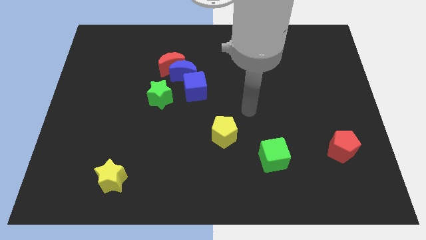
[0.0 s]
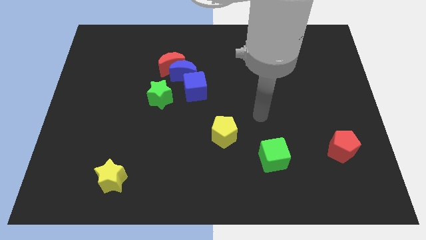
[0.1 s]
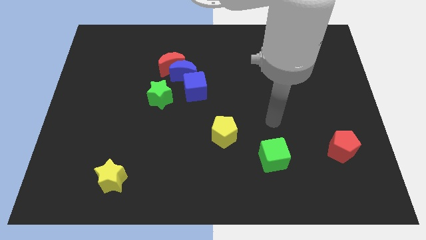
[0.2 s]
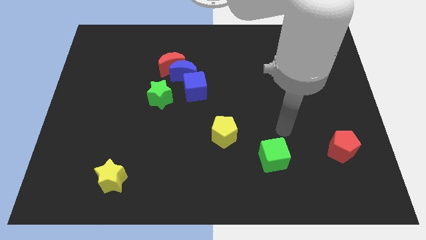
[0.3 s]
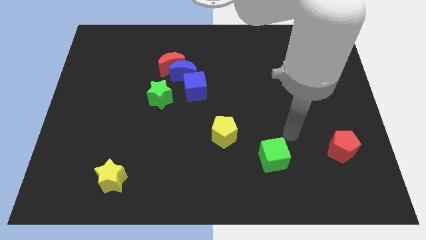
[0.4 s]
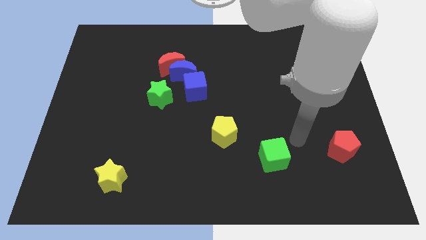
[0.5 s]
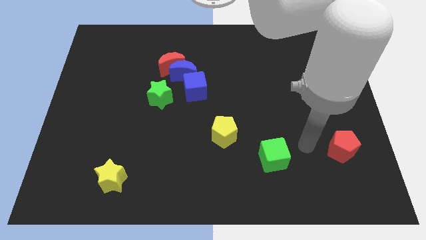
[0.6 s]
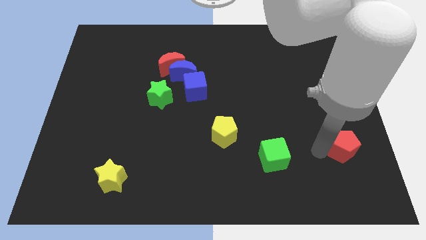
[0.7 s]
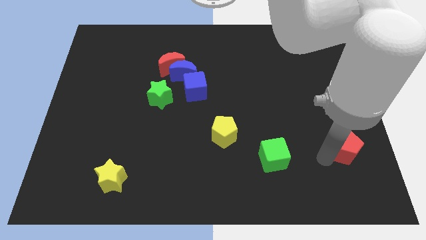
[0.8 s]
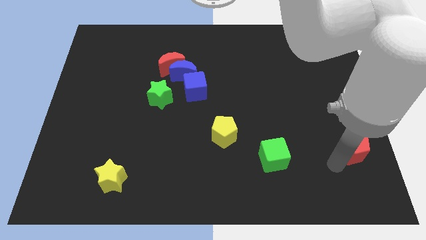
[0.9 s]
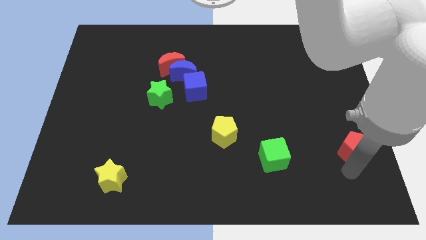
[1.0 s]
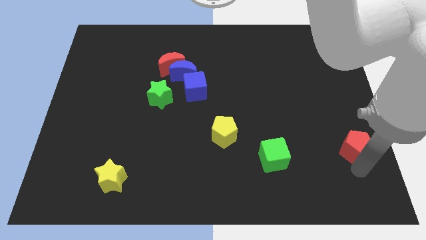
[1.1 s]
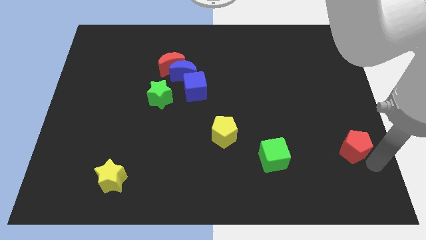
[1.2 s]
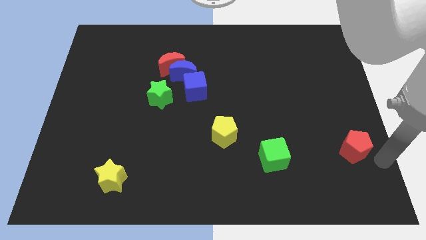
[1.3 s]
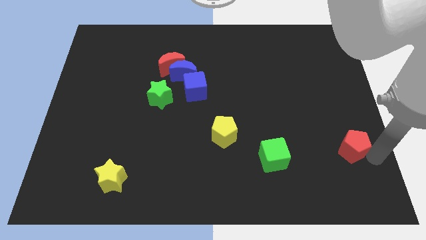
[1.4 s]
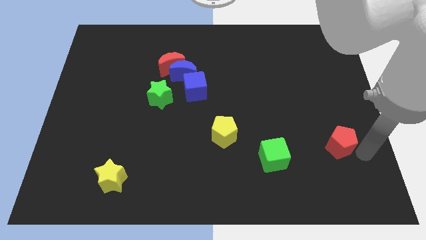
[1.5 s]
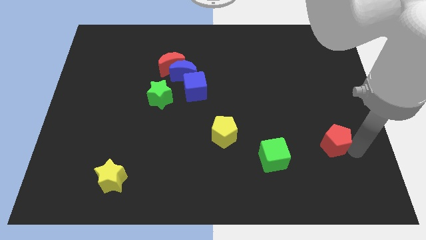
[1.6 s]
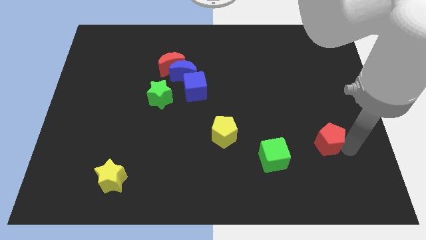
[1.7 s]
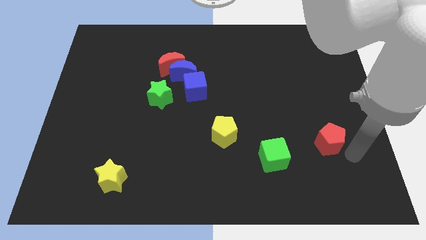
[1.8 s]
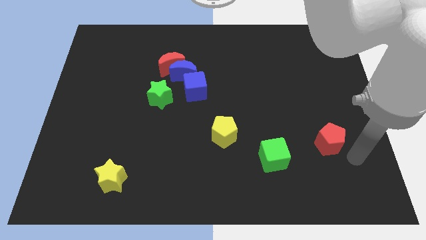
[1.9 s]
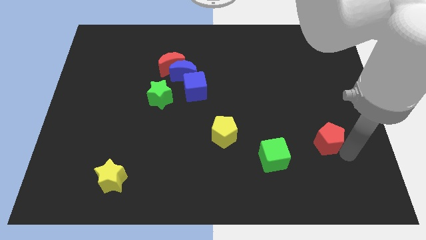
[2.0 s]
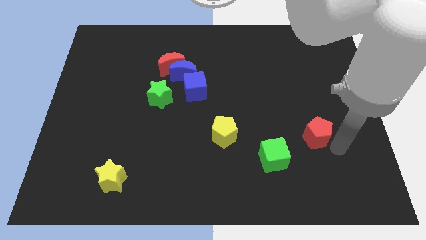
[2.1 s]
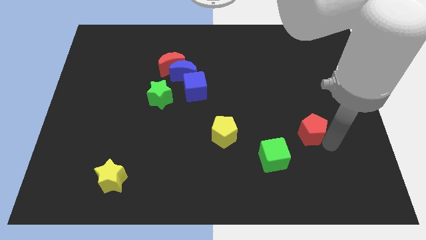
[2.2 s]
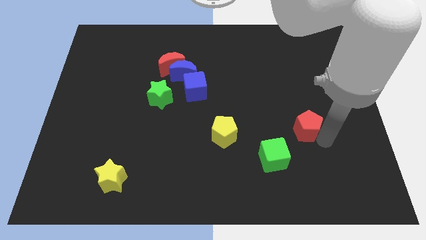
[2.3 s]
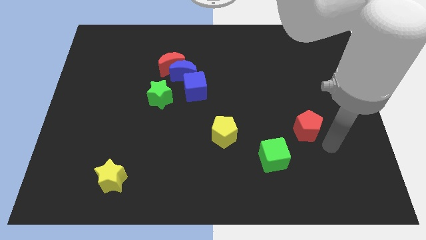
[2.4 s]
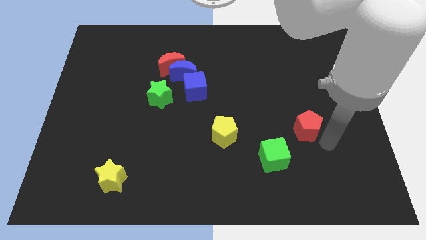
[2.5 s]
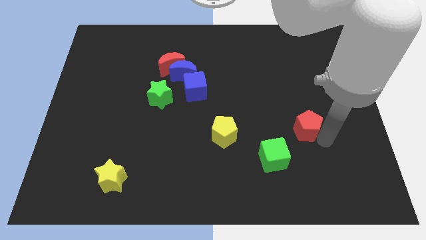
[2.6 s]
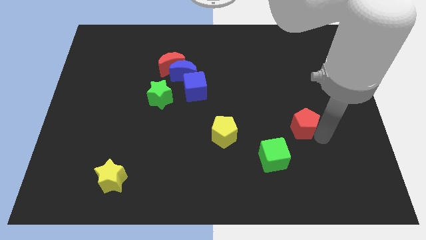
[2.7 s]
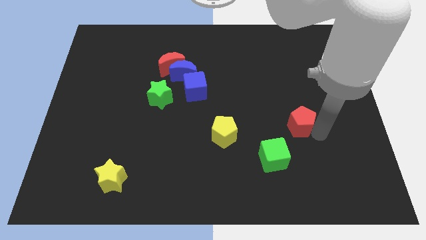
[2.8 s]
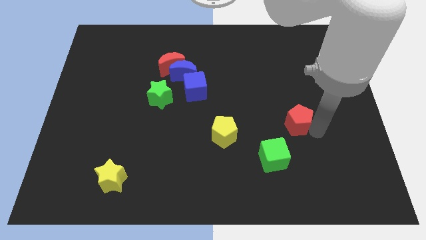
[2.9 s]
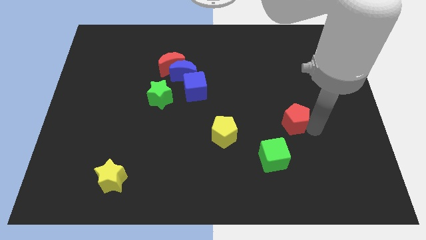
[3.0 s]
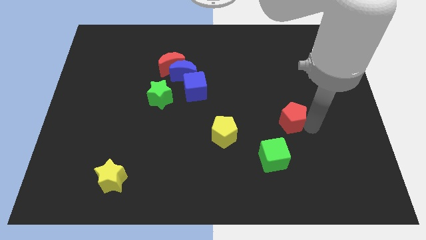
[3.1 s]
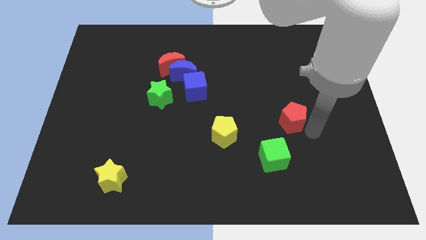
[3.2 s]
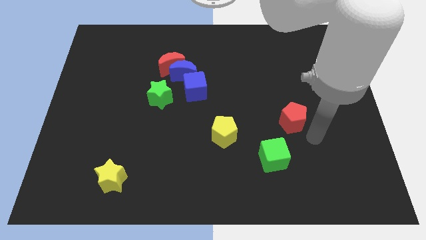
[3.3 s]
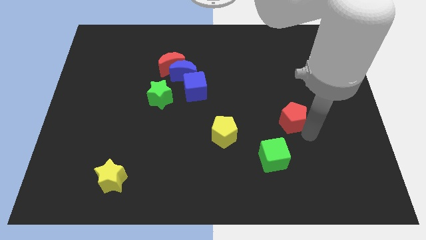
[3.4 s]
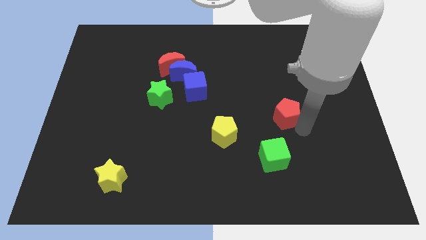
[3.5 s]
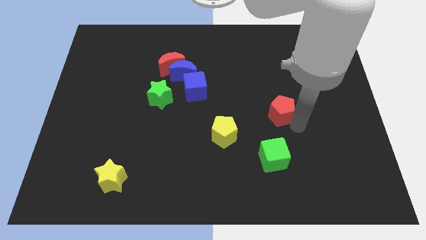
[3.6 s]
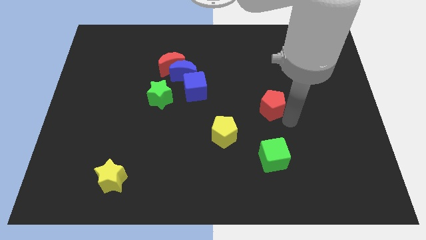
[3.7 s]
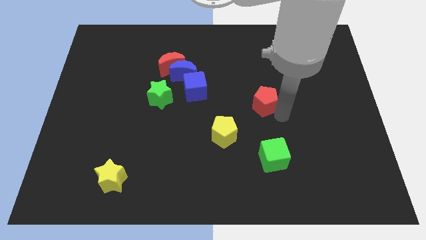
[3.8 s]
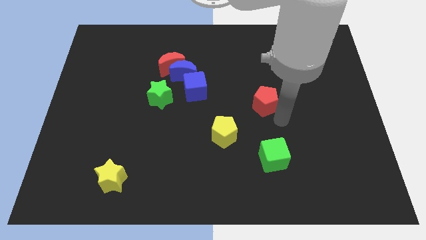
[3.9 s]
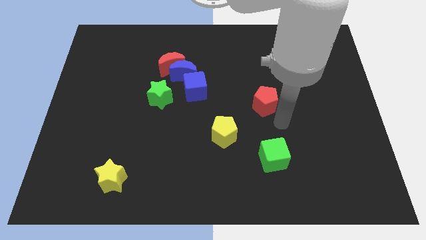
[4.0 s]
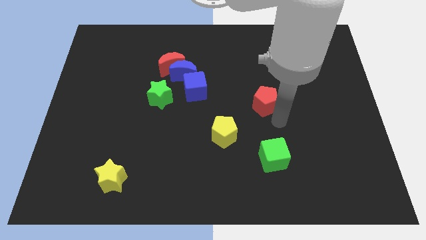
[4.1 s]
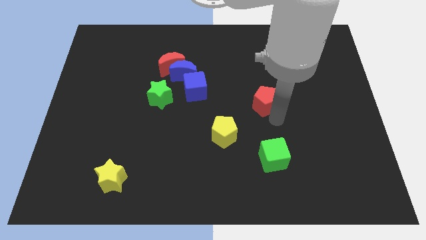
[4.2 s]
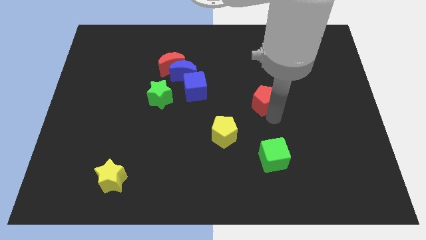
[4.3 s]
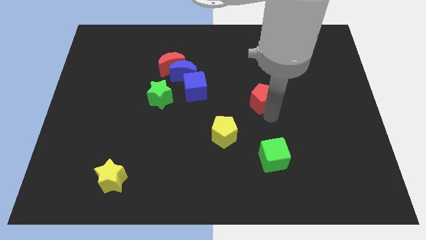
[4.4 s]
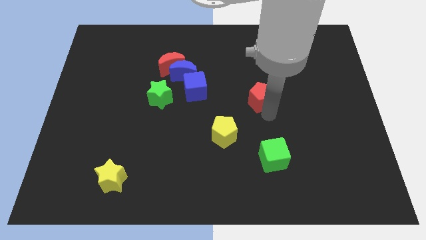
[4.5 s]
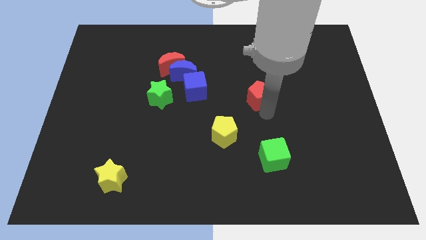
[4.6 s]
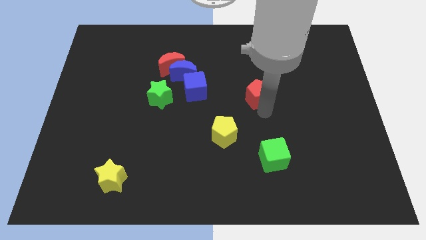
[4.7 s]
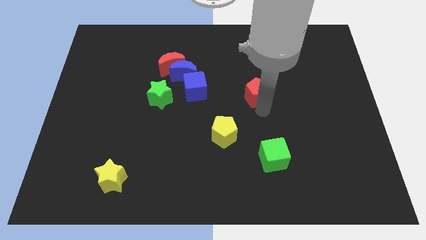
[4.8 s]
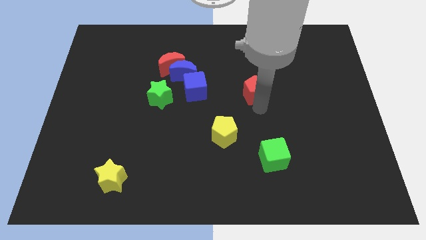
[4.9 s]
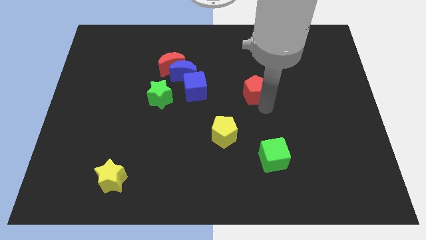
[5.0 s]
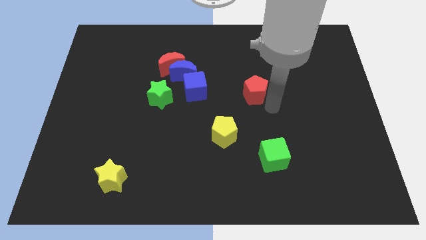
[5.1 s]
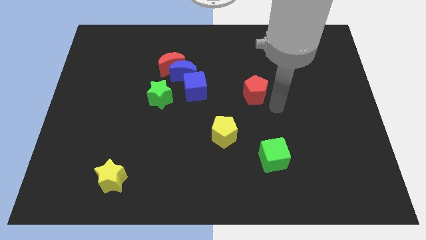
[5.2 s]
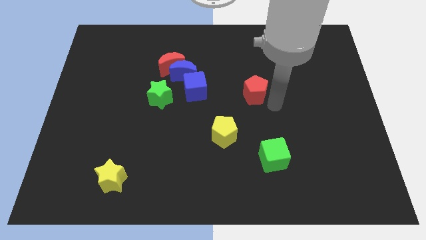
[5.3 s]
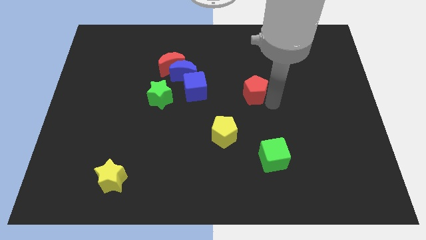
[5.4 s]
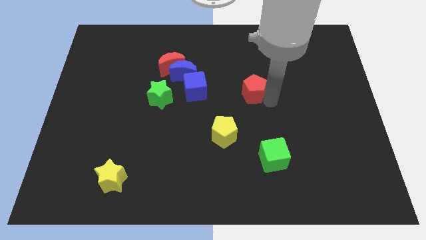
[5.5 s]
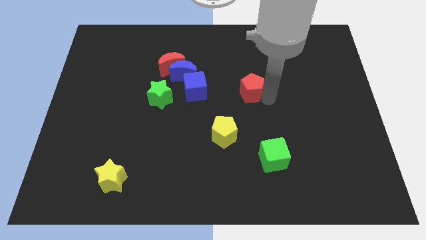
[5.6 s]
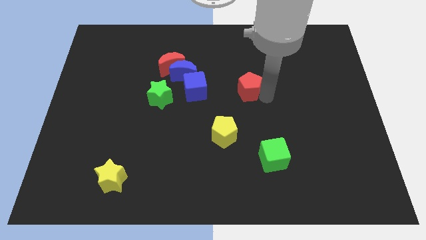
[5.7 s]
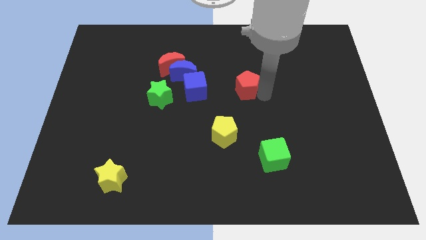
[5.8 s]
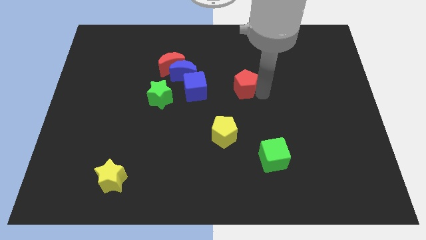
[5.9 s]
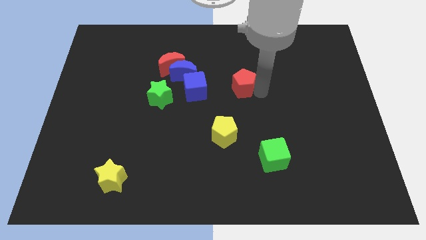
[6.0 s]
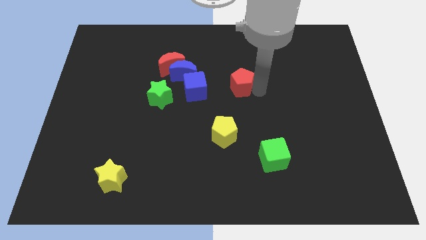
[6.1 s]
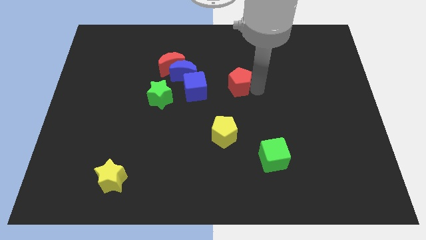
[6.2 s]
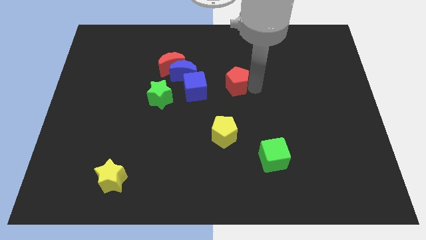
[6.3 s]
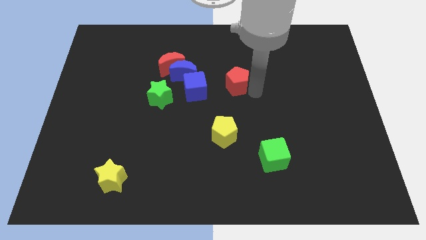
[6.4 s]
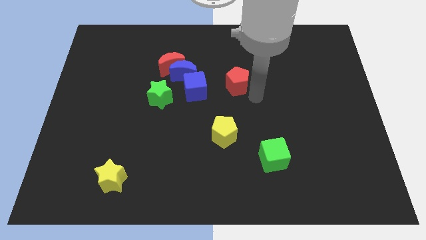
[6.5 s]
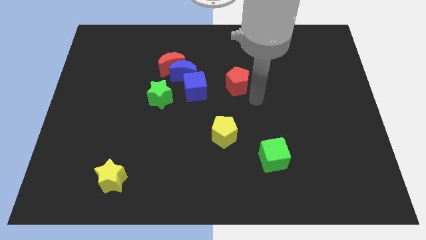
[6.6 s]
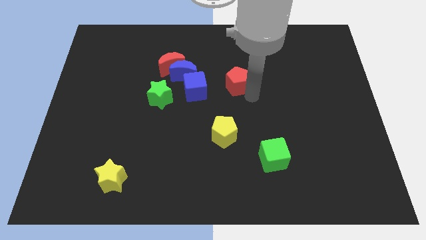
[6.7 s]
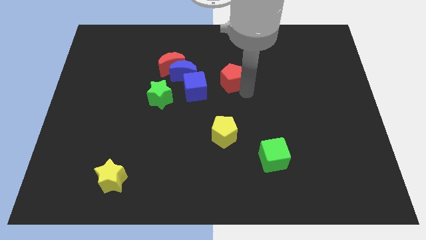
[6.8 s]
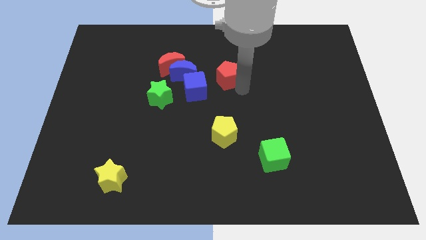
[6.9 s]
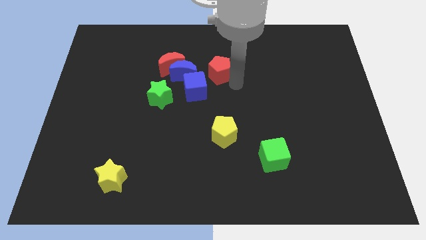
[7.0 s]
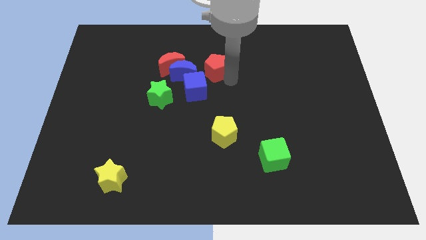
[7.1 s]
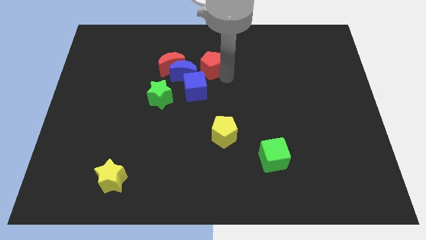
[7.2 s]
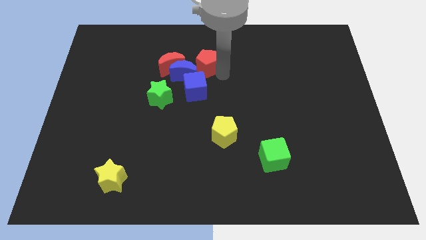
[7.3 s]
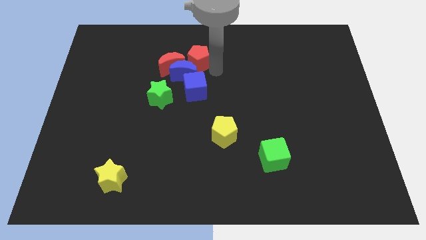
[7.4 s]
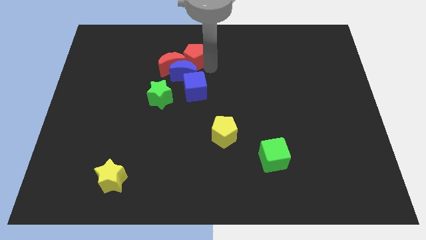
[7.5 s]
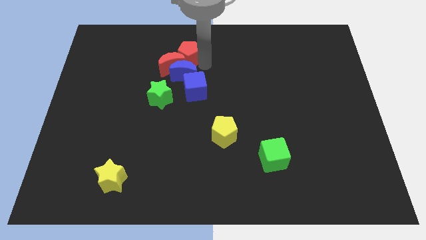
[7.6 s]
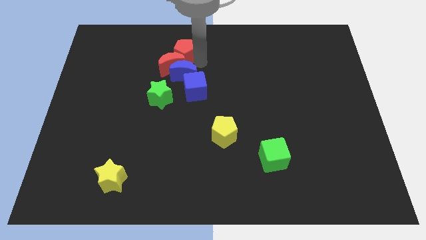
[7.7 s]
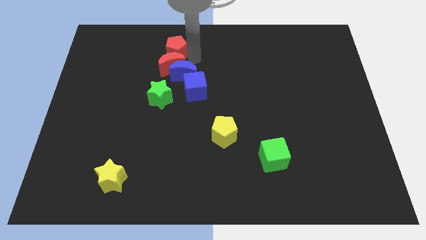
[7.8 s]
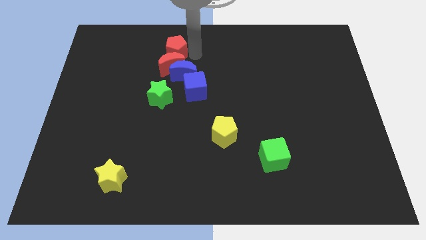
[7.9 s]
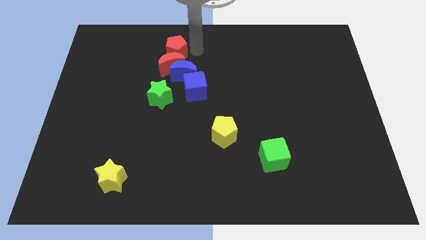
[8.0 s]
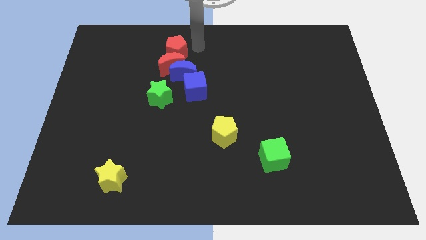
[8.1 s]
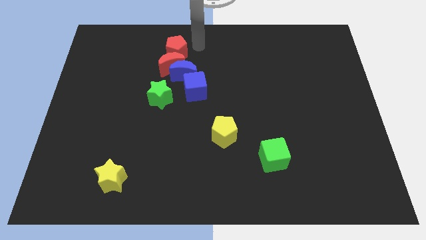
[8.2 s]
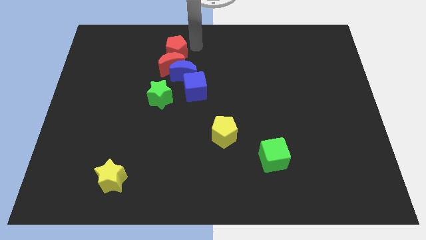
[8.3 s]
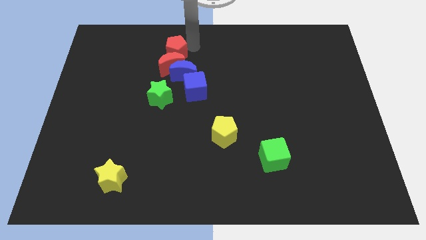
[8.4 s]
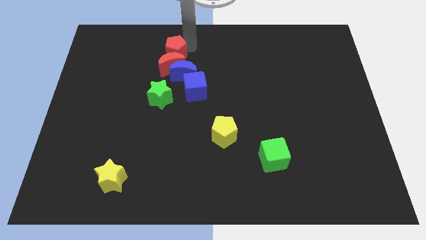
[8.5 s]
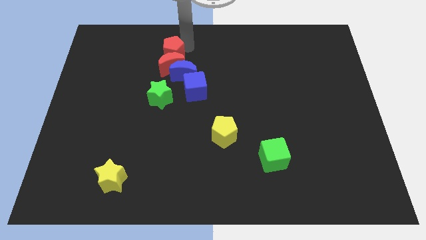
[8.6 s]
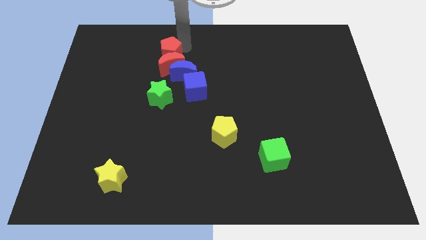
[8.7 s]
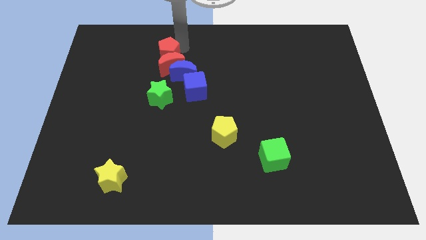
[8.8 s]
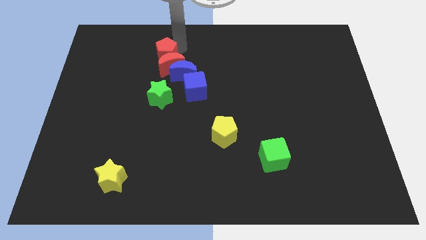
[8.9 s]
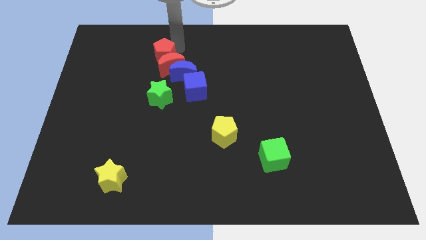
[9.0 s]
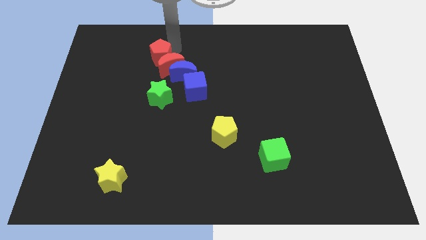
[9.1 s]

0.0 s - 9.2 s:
move the red pentagon left of the red moon
